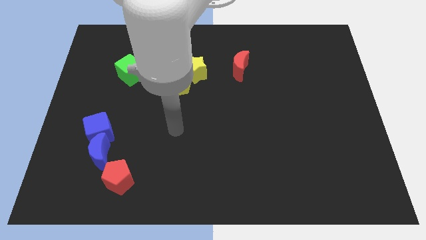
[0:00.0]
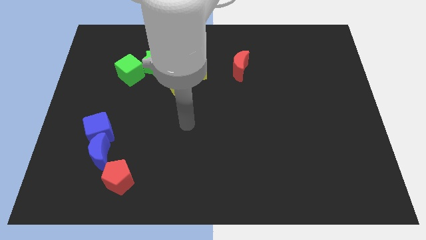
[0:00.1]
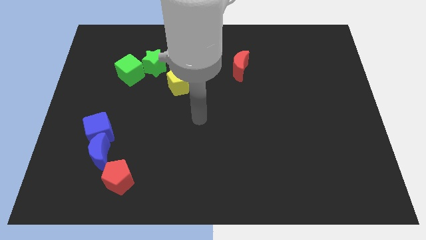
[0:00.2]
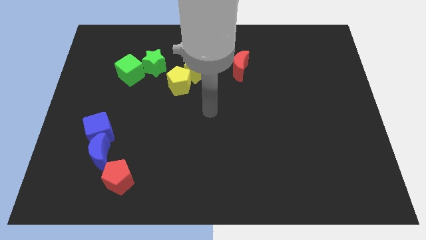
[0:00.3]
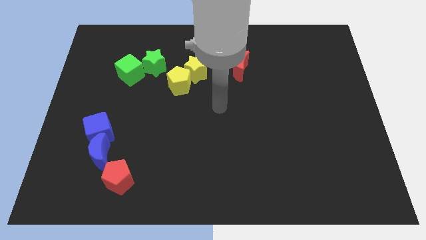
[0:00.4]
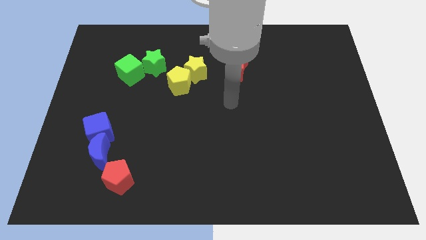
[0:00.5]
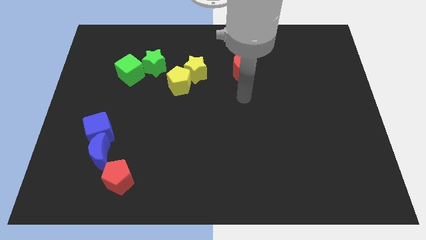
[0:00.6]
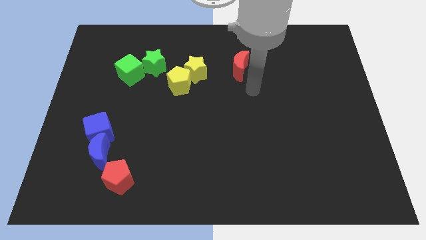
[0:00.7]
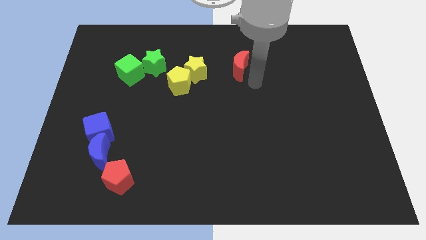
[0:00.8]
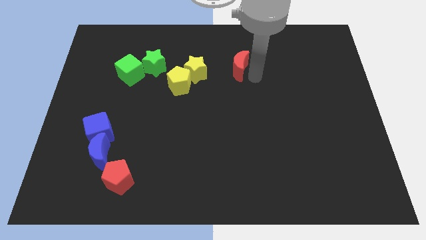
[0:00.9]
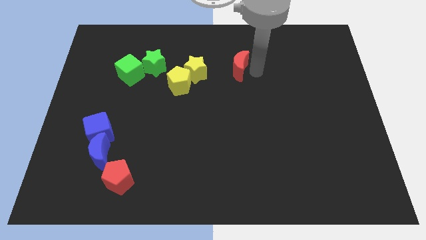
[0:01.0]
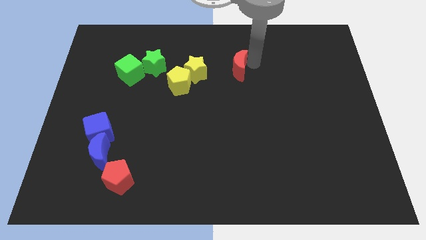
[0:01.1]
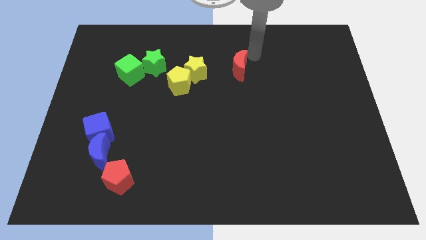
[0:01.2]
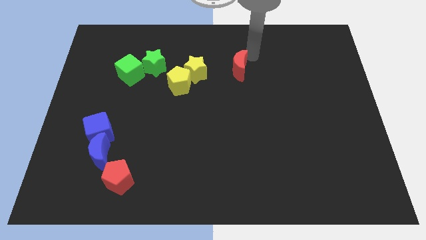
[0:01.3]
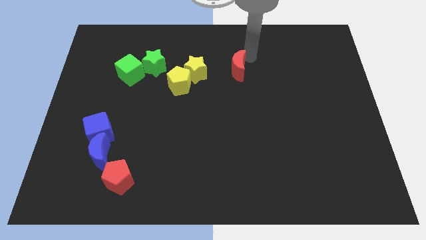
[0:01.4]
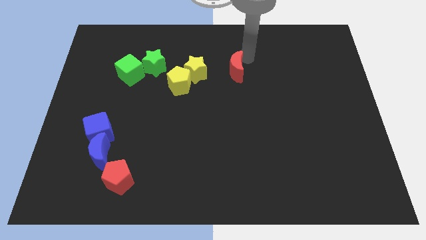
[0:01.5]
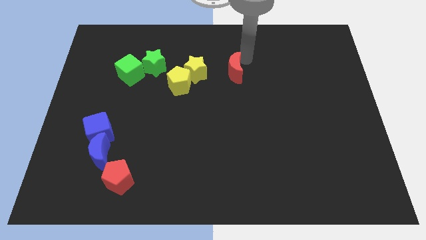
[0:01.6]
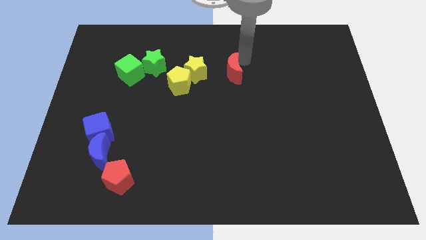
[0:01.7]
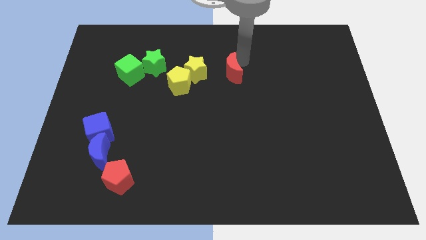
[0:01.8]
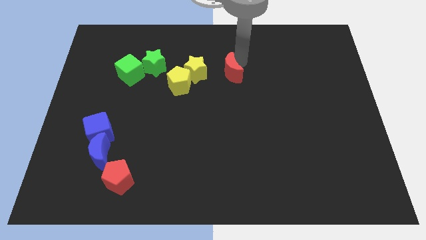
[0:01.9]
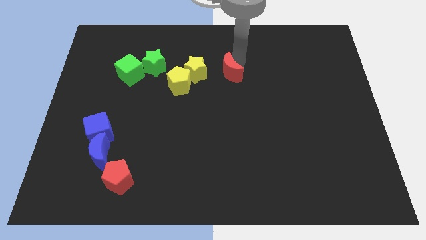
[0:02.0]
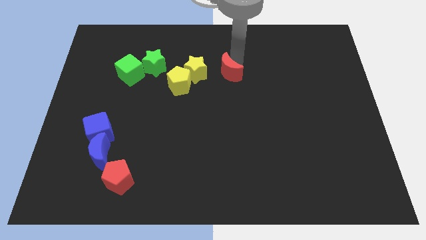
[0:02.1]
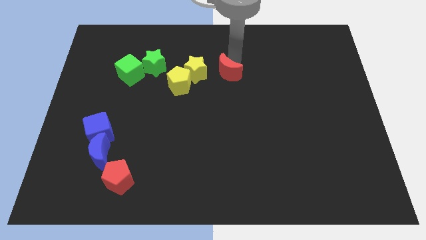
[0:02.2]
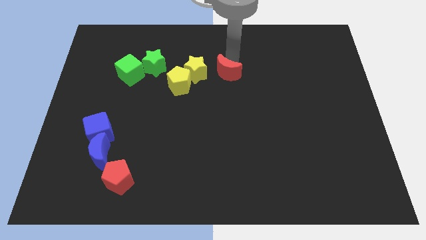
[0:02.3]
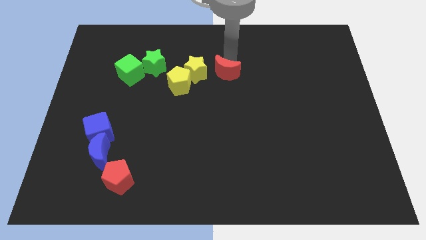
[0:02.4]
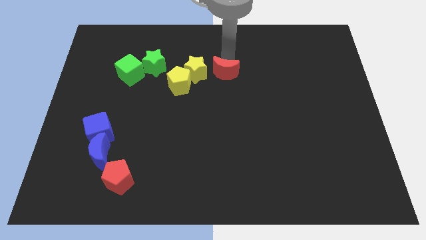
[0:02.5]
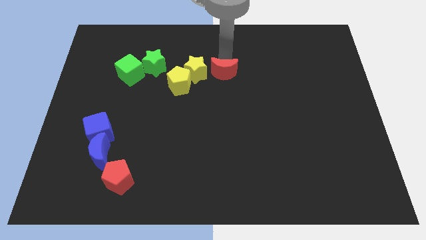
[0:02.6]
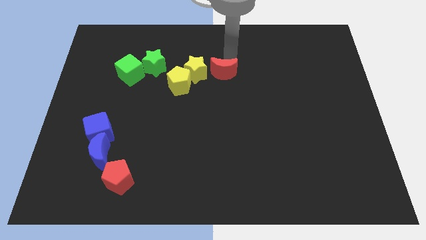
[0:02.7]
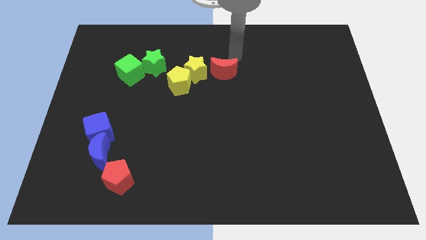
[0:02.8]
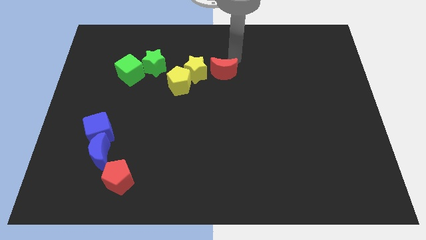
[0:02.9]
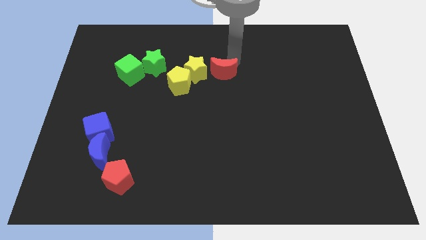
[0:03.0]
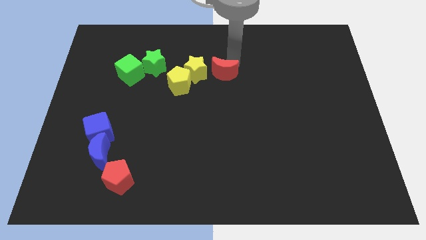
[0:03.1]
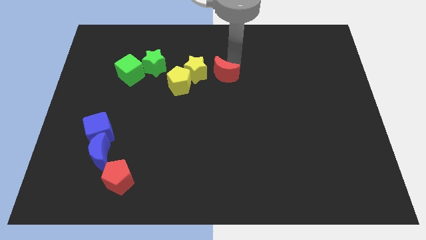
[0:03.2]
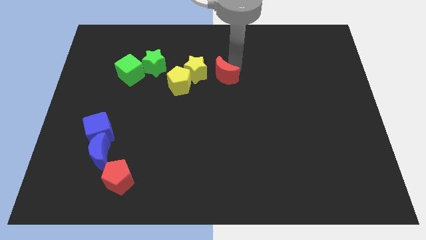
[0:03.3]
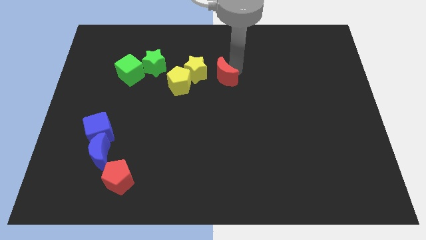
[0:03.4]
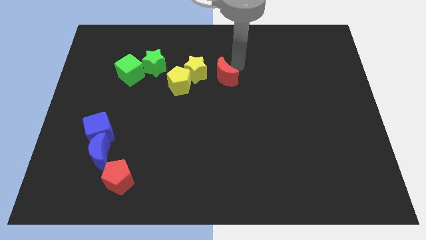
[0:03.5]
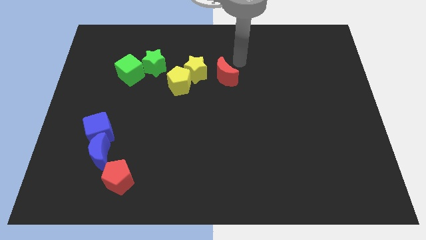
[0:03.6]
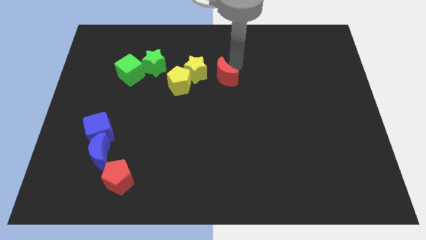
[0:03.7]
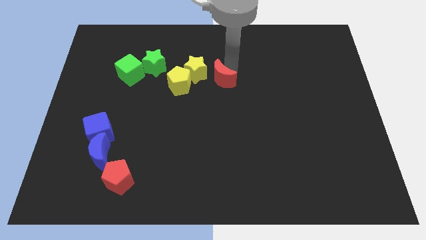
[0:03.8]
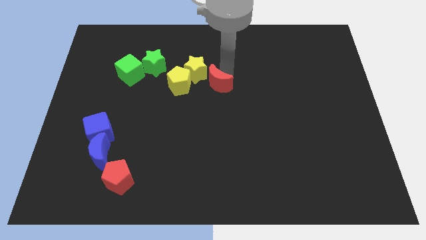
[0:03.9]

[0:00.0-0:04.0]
slide the red moon a bit down and then left

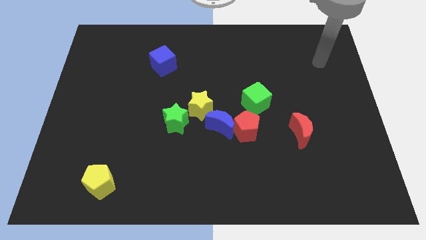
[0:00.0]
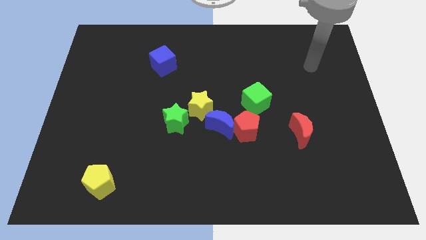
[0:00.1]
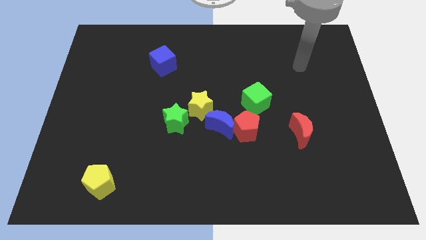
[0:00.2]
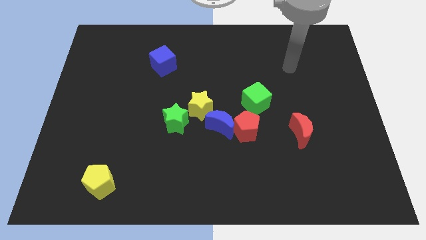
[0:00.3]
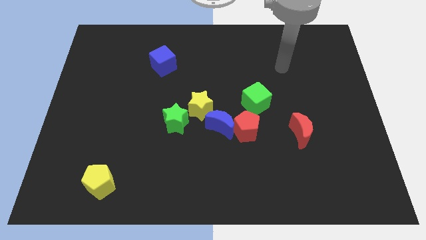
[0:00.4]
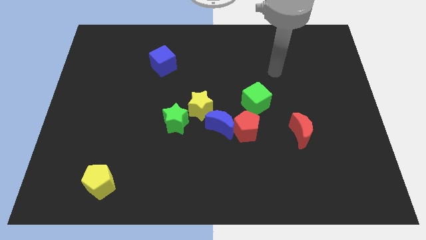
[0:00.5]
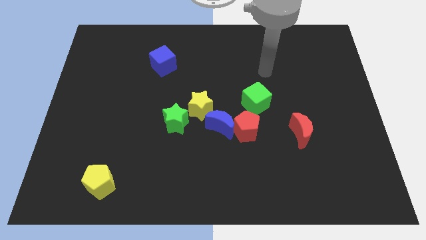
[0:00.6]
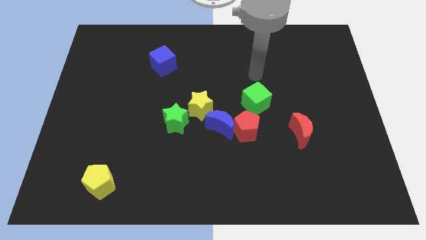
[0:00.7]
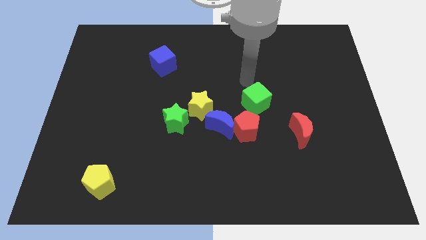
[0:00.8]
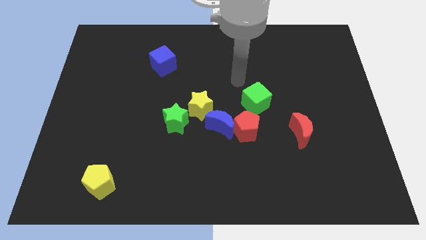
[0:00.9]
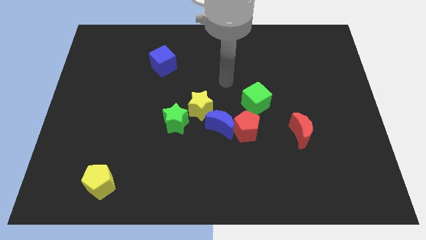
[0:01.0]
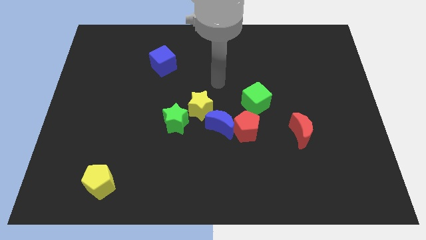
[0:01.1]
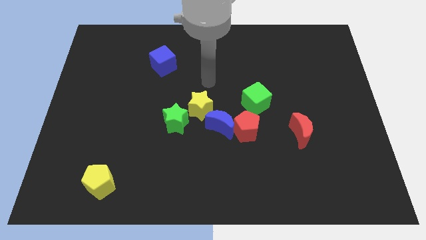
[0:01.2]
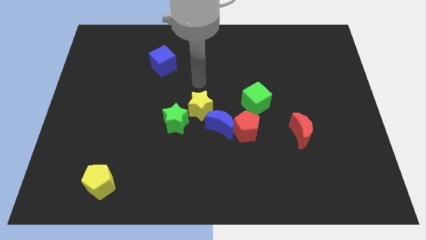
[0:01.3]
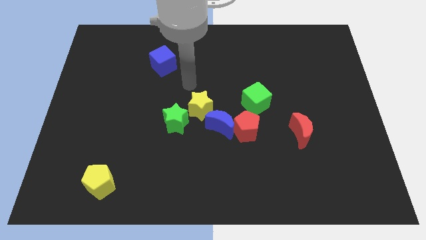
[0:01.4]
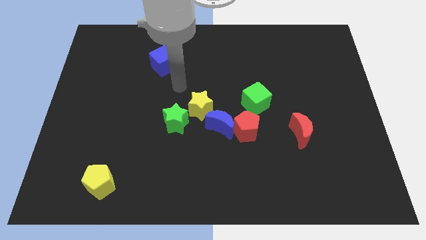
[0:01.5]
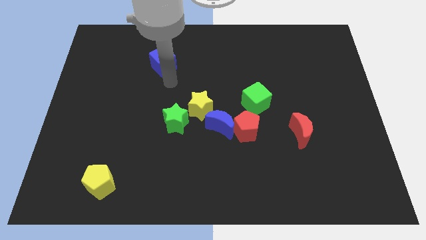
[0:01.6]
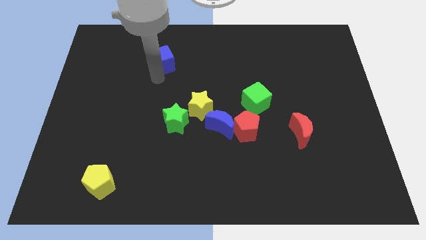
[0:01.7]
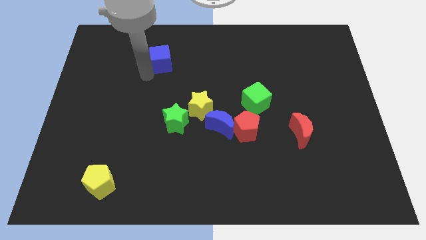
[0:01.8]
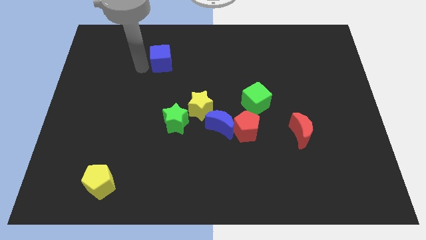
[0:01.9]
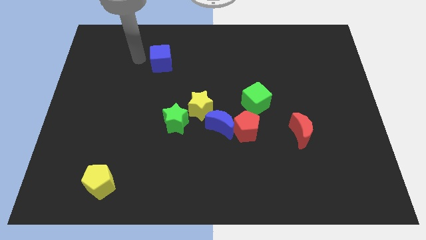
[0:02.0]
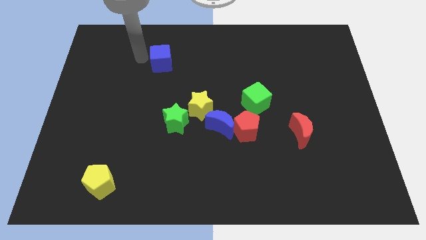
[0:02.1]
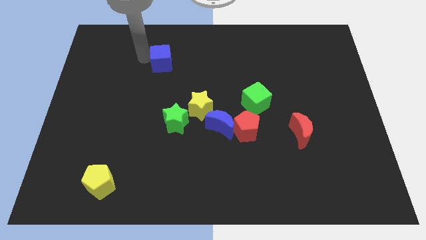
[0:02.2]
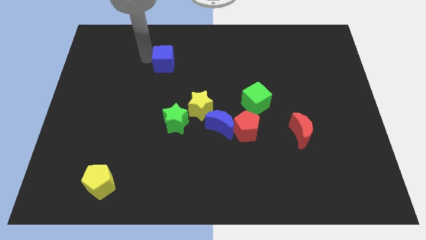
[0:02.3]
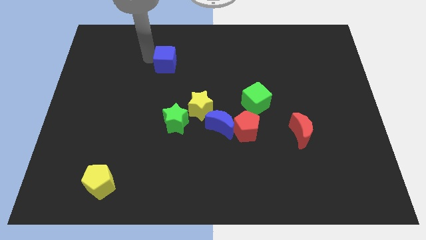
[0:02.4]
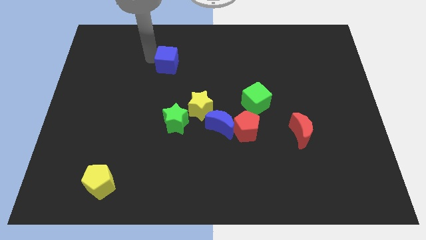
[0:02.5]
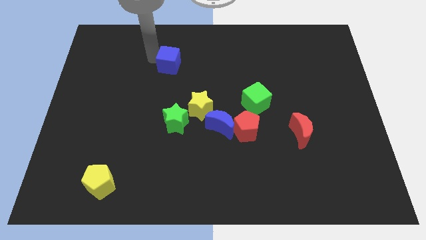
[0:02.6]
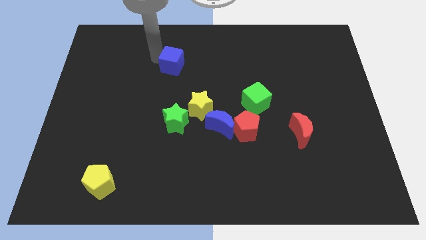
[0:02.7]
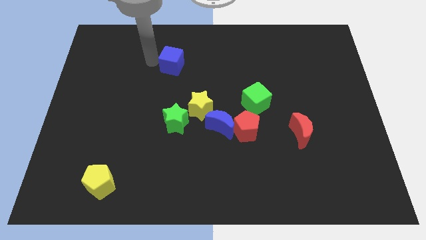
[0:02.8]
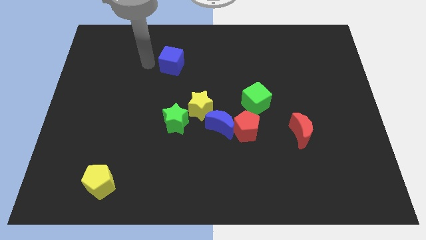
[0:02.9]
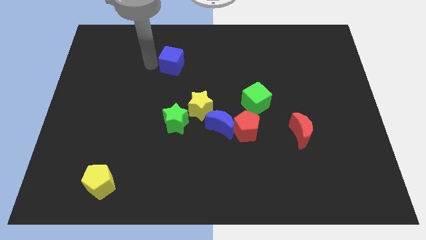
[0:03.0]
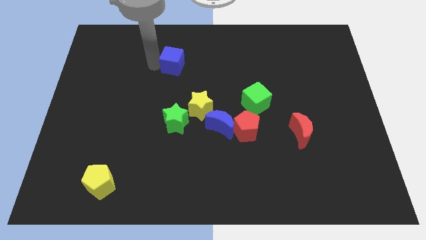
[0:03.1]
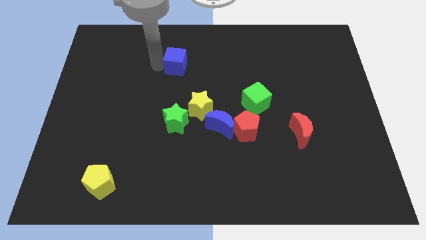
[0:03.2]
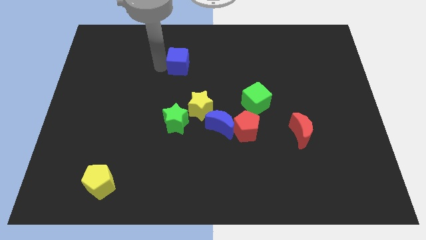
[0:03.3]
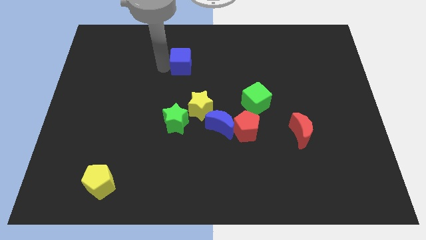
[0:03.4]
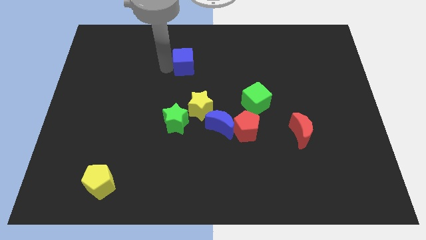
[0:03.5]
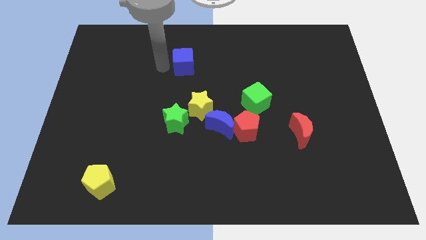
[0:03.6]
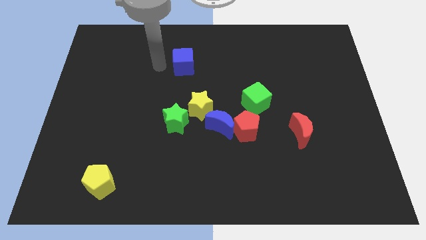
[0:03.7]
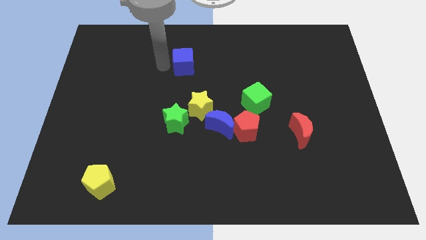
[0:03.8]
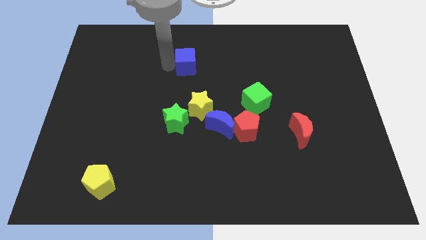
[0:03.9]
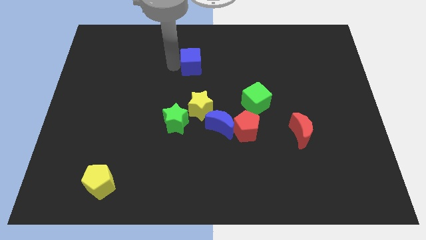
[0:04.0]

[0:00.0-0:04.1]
slide the blue cube a bit right
